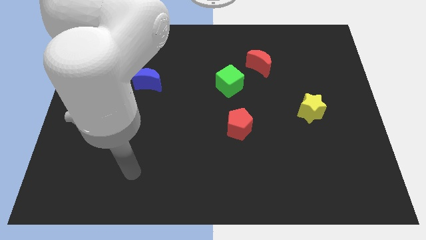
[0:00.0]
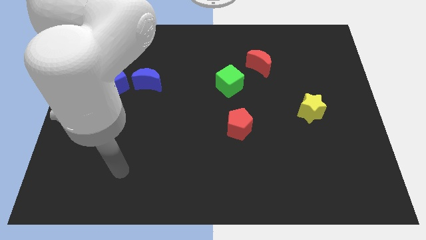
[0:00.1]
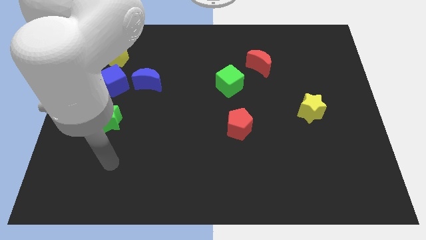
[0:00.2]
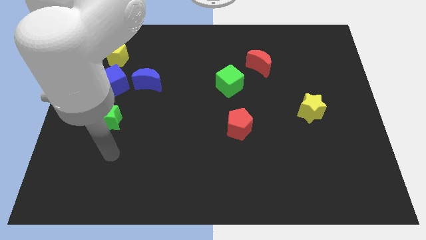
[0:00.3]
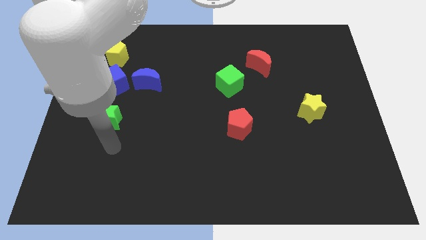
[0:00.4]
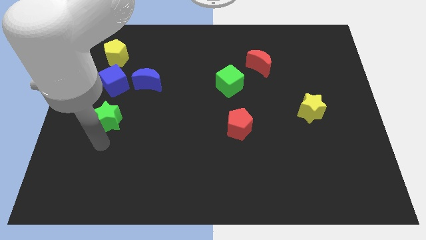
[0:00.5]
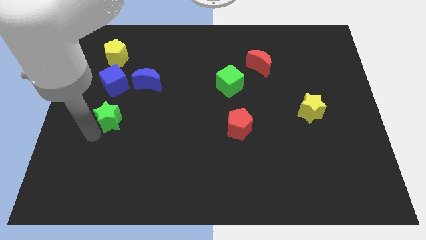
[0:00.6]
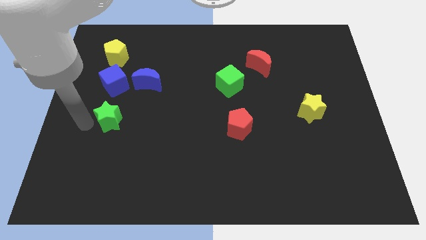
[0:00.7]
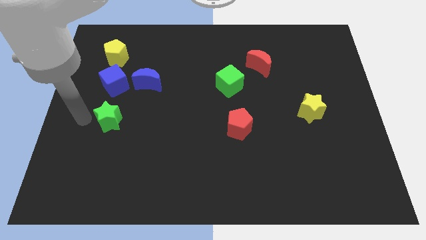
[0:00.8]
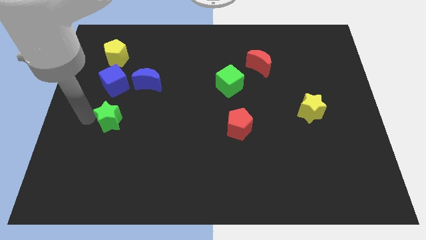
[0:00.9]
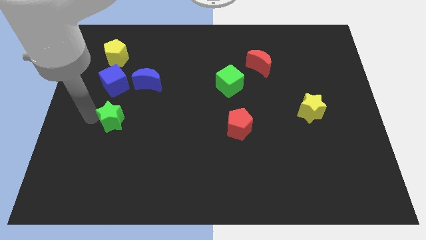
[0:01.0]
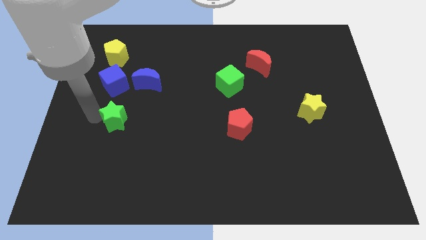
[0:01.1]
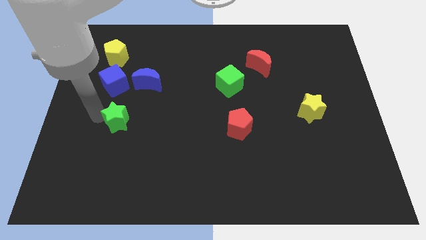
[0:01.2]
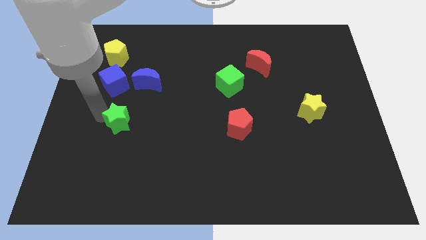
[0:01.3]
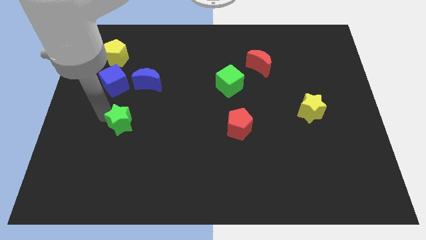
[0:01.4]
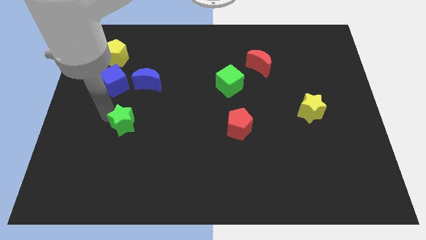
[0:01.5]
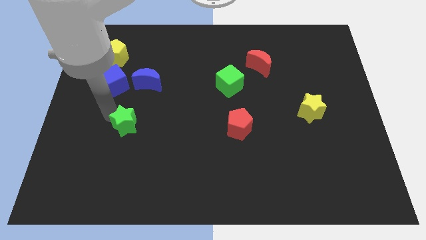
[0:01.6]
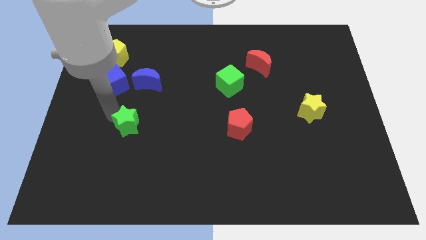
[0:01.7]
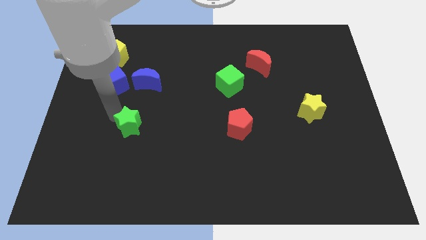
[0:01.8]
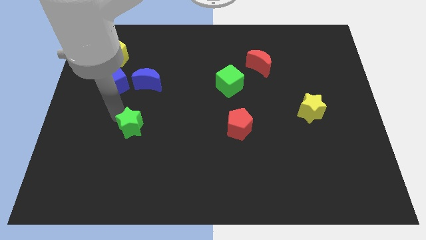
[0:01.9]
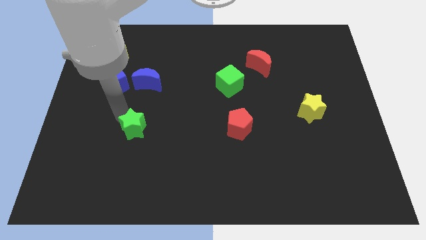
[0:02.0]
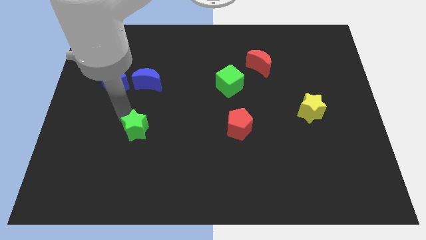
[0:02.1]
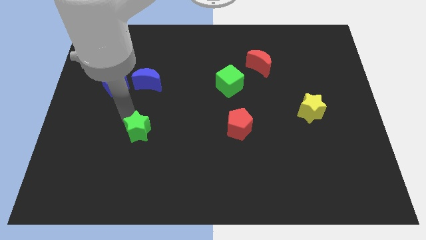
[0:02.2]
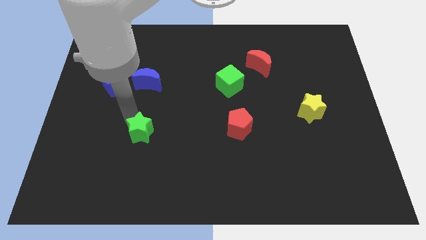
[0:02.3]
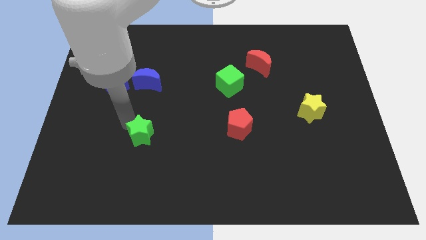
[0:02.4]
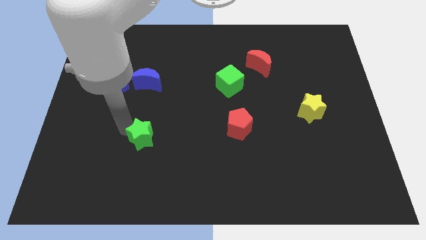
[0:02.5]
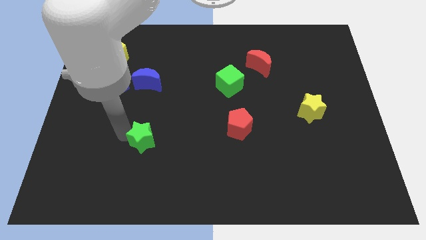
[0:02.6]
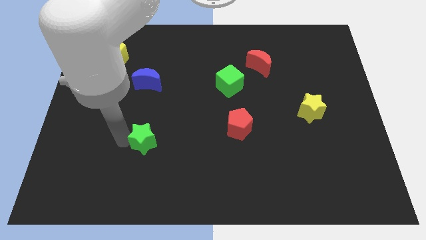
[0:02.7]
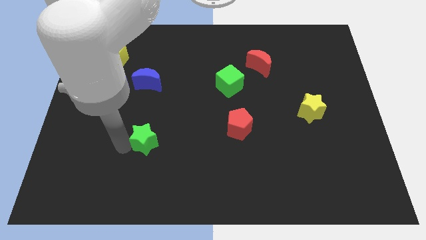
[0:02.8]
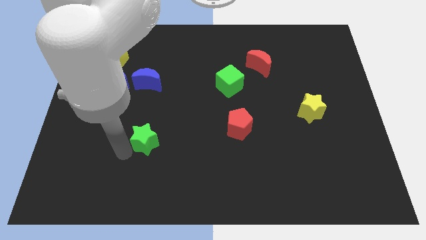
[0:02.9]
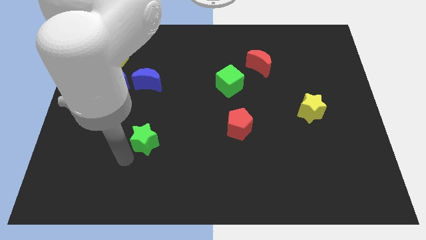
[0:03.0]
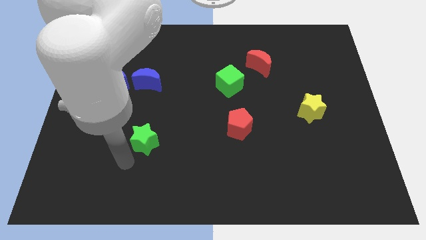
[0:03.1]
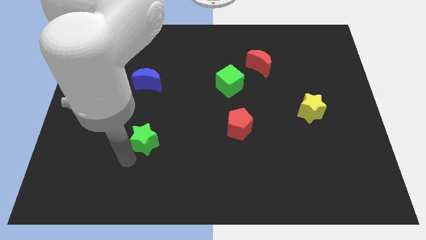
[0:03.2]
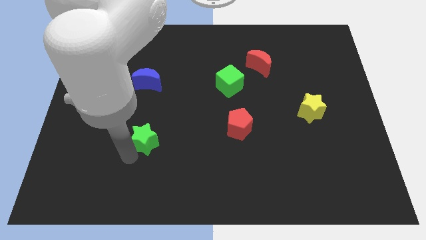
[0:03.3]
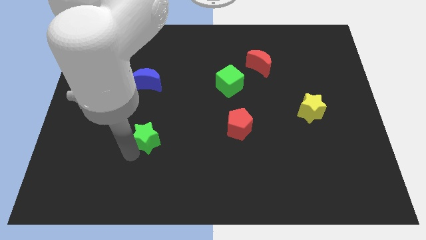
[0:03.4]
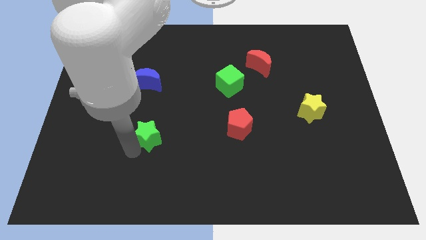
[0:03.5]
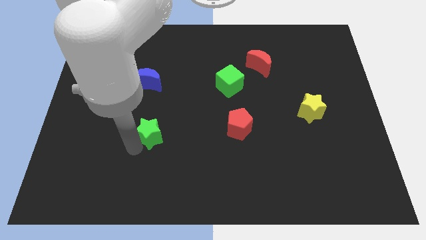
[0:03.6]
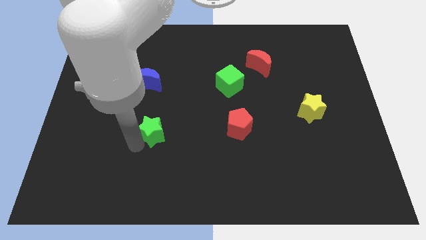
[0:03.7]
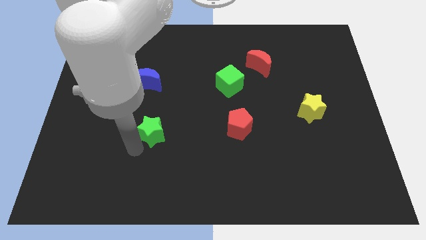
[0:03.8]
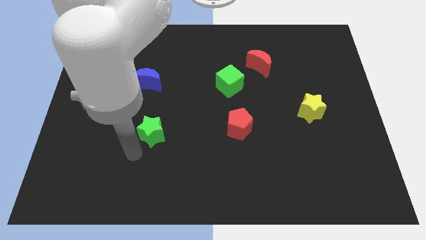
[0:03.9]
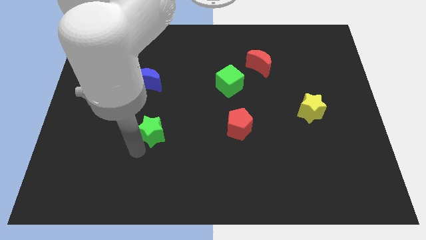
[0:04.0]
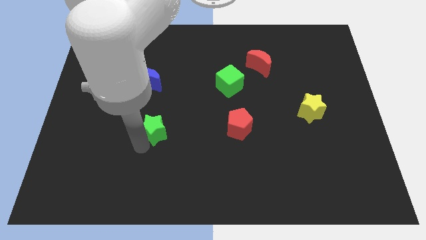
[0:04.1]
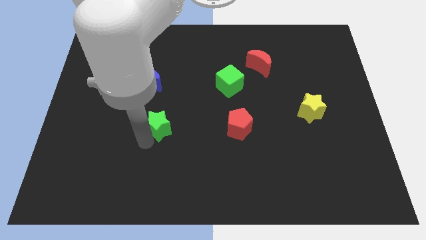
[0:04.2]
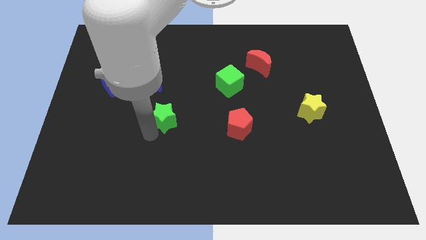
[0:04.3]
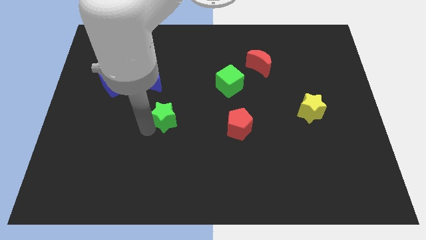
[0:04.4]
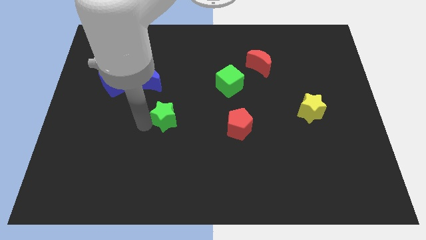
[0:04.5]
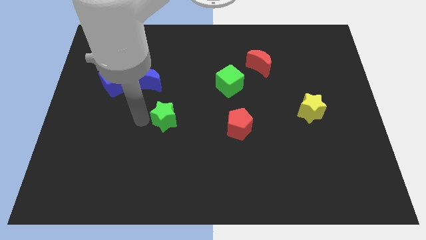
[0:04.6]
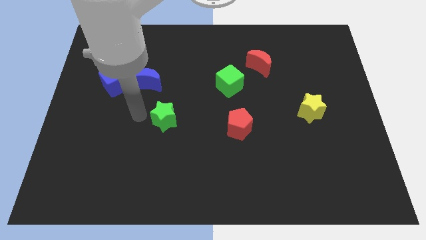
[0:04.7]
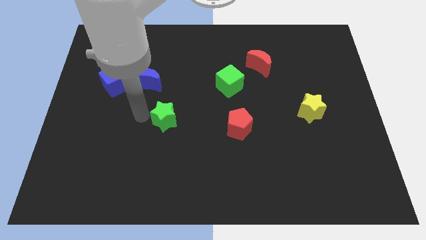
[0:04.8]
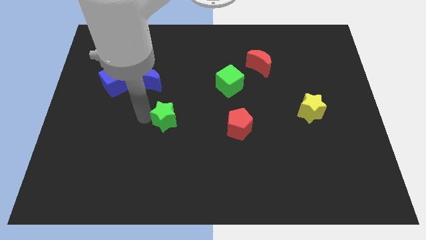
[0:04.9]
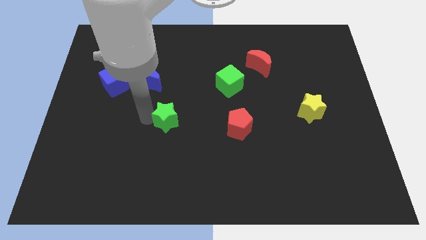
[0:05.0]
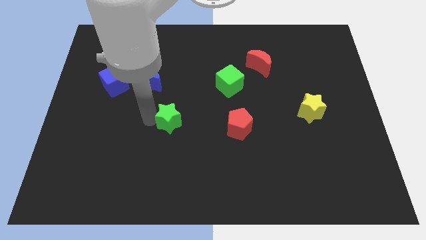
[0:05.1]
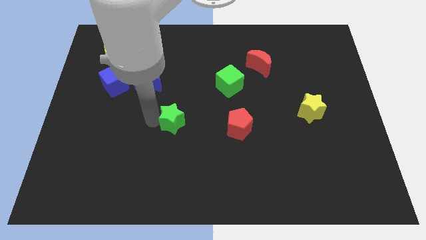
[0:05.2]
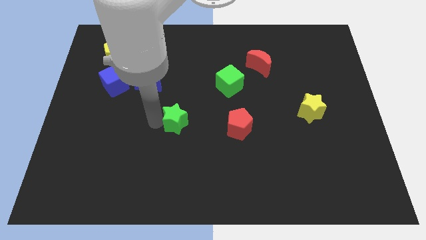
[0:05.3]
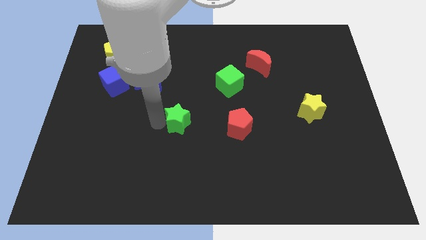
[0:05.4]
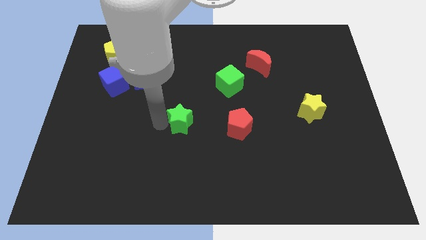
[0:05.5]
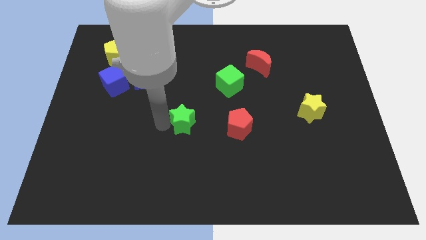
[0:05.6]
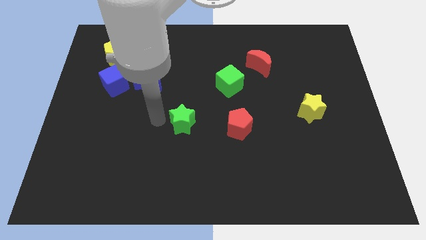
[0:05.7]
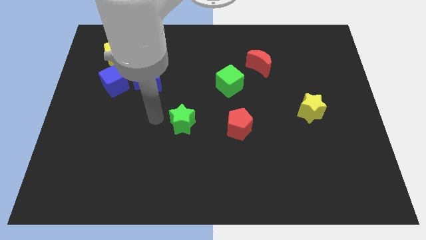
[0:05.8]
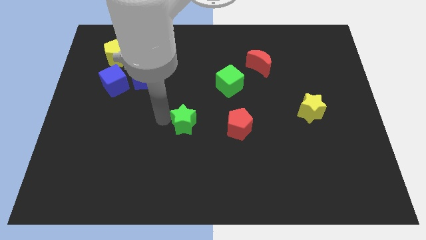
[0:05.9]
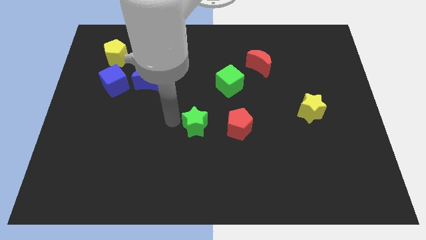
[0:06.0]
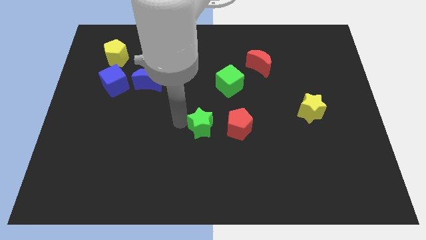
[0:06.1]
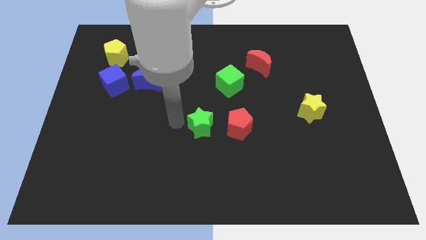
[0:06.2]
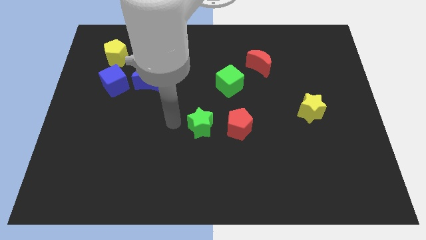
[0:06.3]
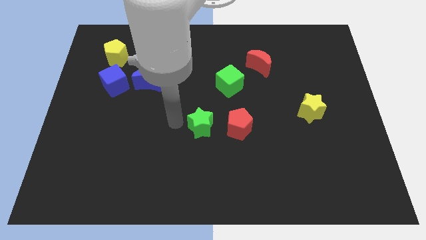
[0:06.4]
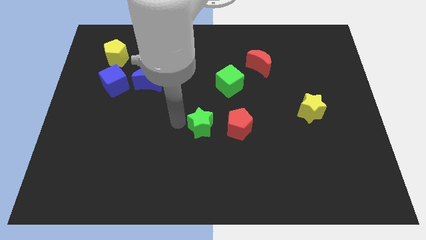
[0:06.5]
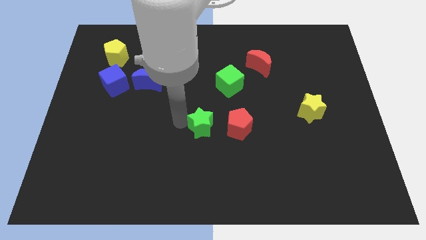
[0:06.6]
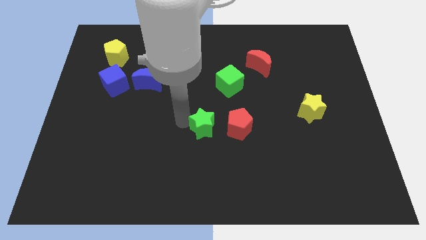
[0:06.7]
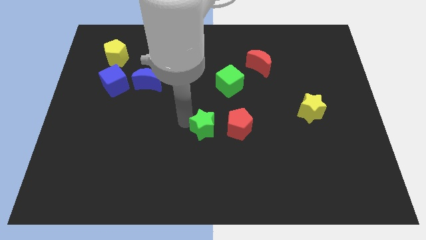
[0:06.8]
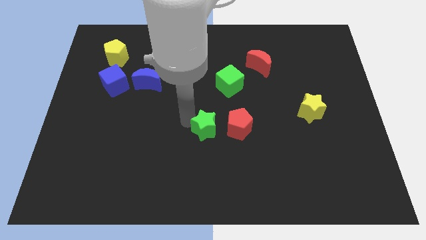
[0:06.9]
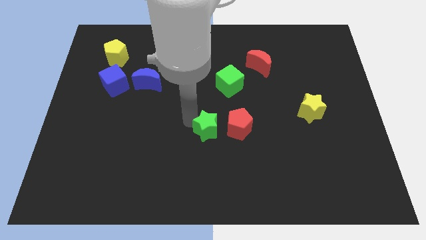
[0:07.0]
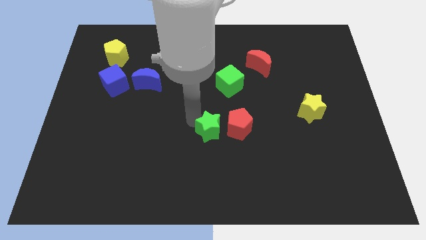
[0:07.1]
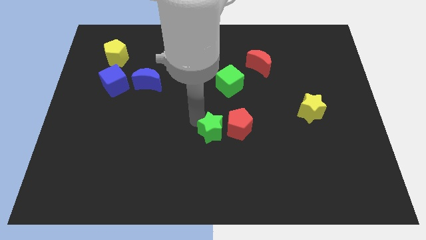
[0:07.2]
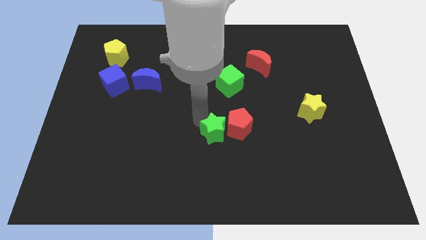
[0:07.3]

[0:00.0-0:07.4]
slide the green star close to the red pentagon

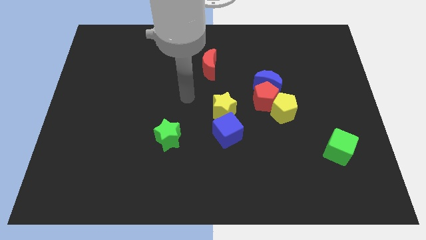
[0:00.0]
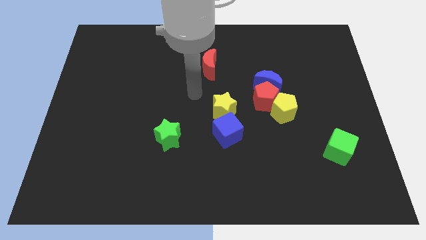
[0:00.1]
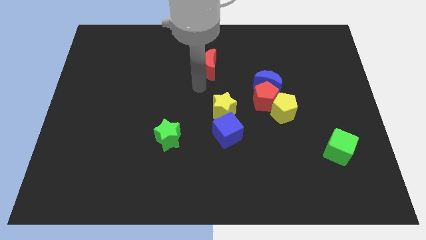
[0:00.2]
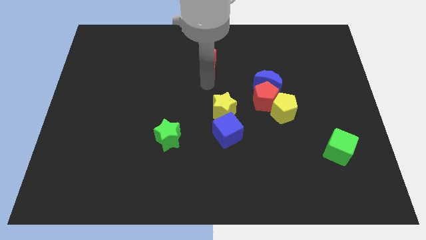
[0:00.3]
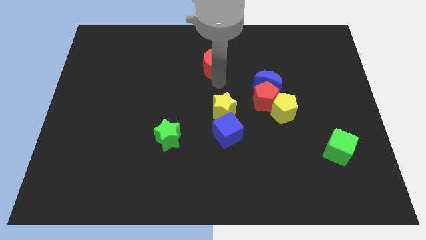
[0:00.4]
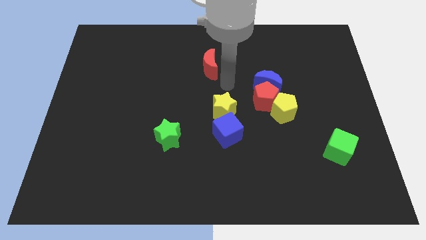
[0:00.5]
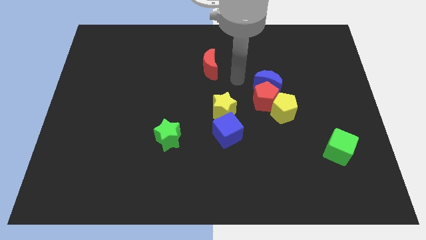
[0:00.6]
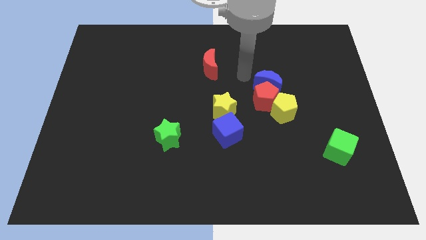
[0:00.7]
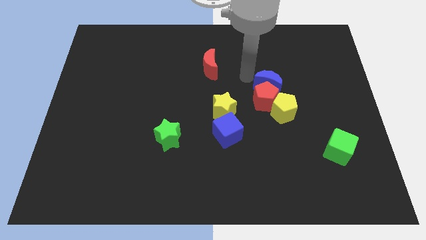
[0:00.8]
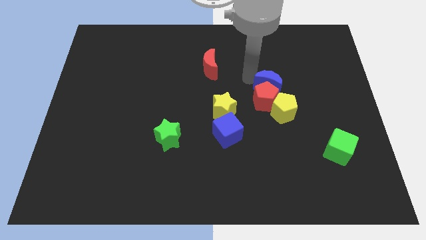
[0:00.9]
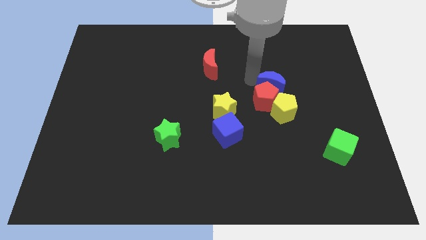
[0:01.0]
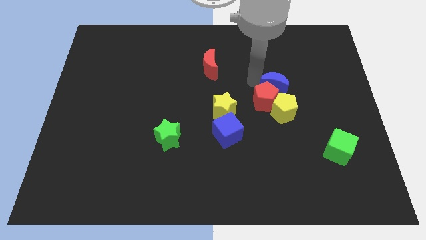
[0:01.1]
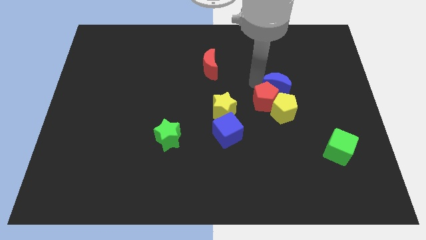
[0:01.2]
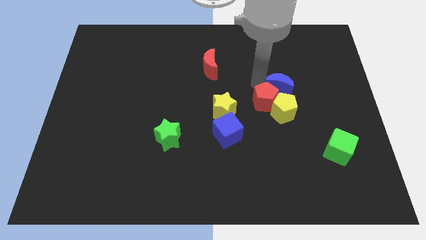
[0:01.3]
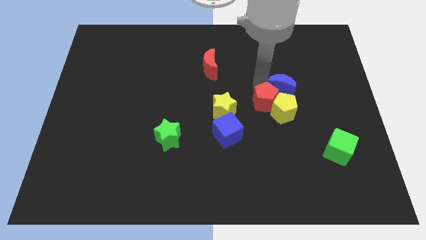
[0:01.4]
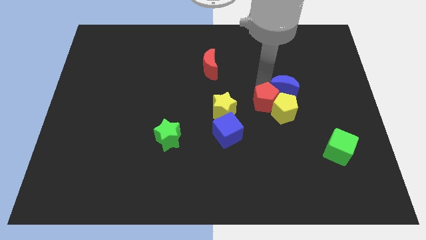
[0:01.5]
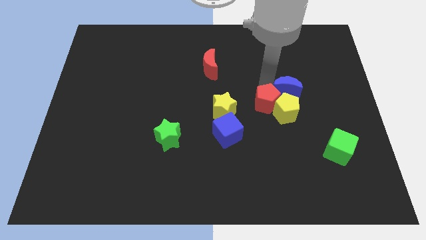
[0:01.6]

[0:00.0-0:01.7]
slide the blue moon to the yellow pentagon
